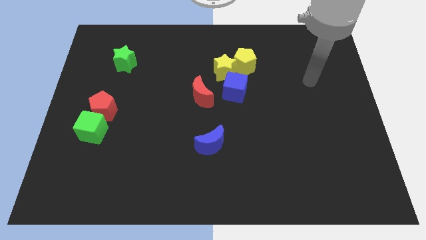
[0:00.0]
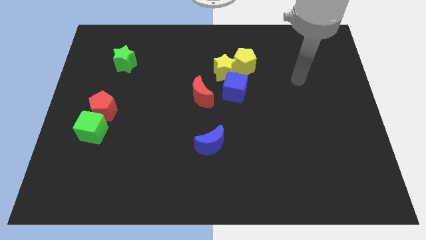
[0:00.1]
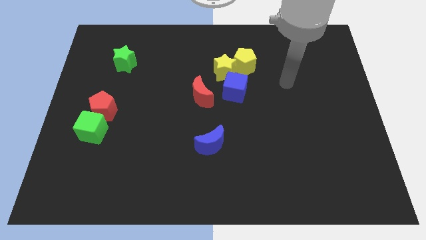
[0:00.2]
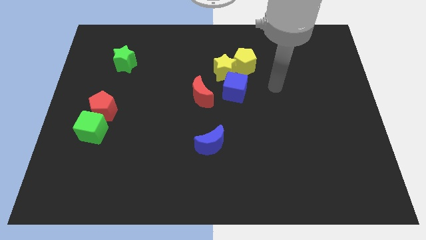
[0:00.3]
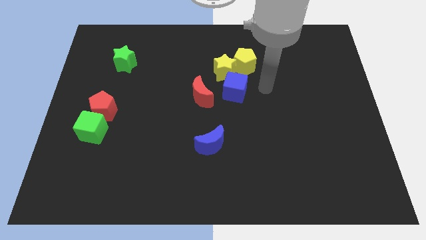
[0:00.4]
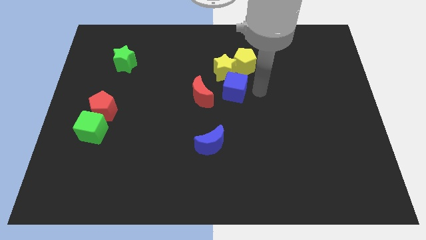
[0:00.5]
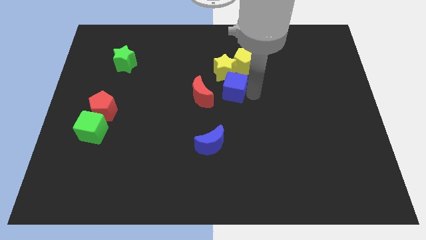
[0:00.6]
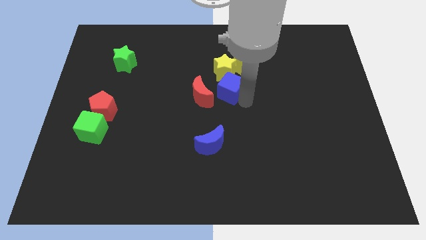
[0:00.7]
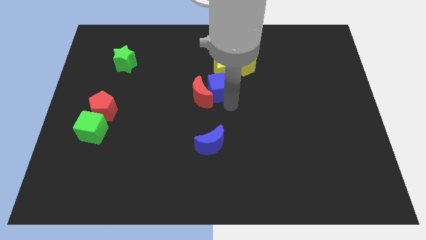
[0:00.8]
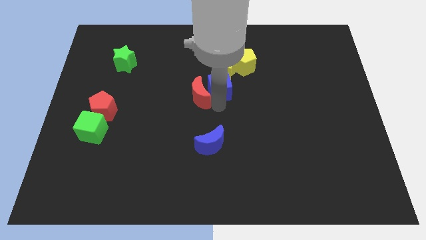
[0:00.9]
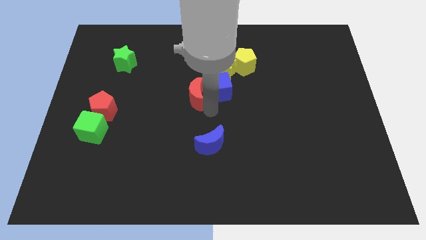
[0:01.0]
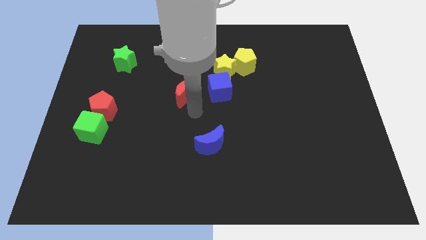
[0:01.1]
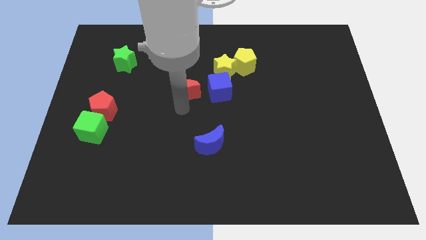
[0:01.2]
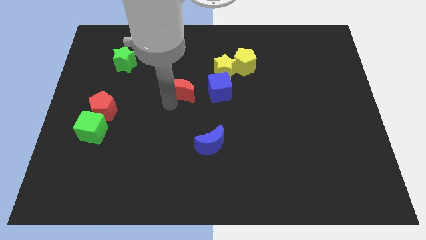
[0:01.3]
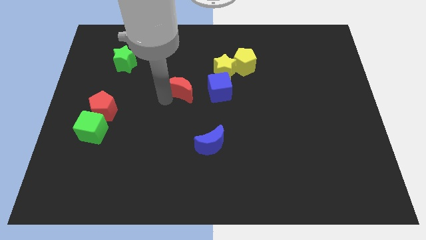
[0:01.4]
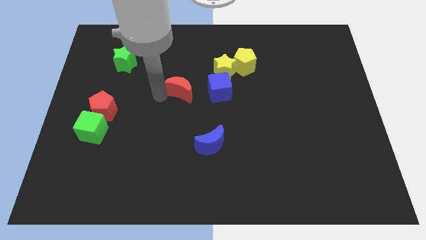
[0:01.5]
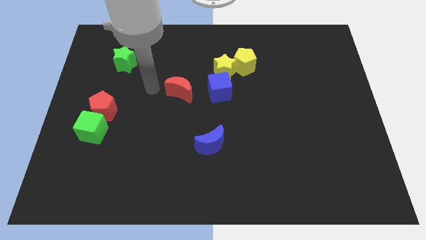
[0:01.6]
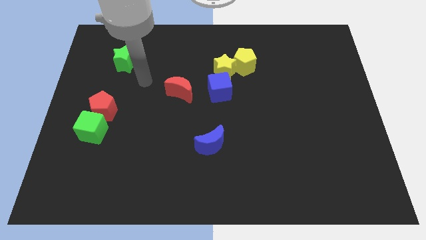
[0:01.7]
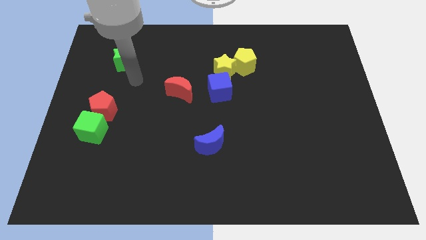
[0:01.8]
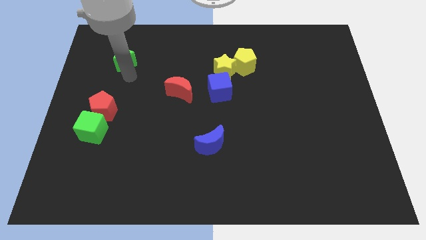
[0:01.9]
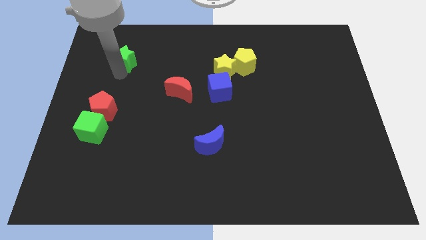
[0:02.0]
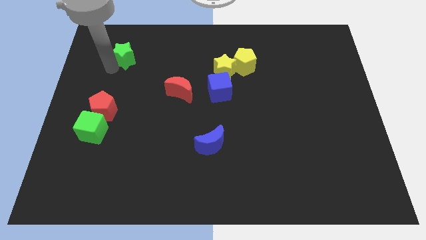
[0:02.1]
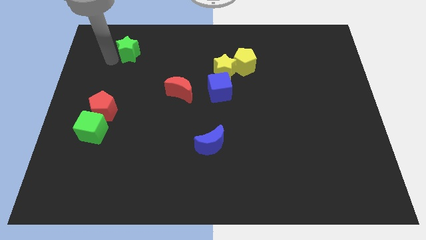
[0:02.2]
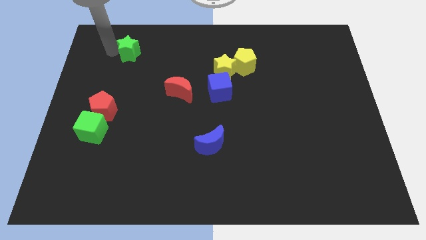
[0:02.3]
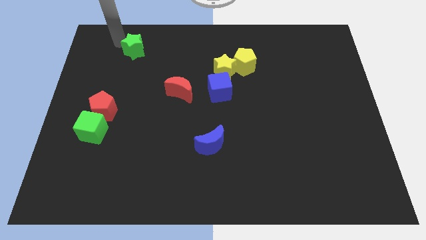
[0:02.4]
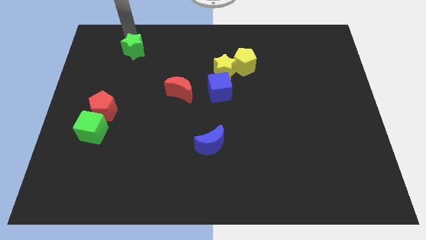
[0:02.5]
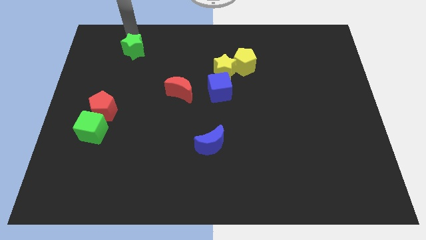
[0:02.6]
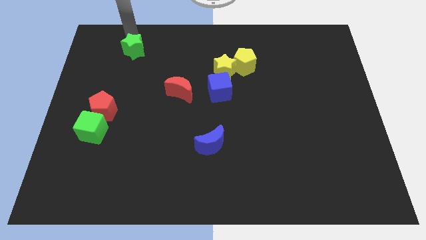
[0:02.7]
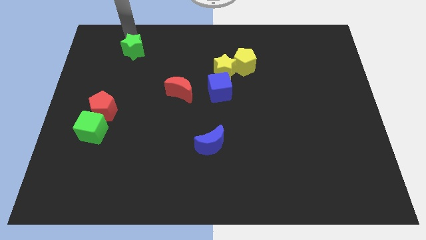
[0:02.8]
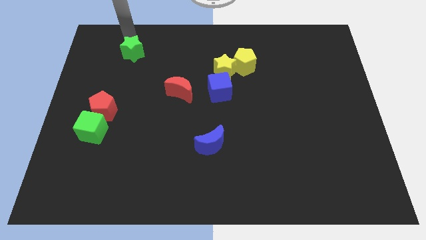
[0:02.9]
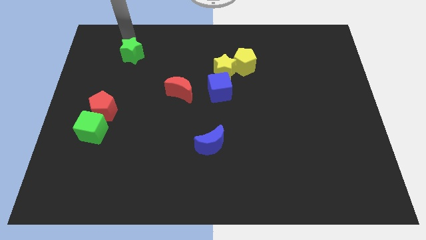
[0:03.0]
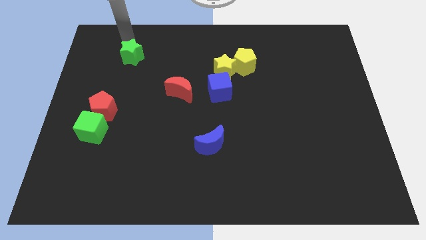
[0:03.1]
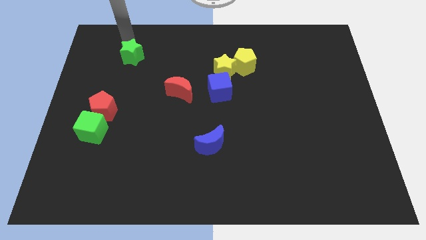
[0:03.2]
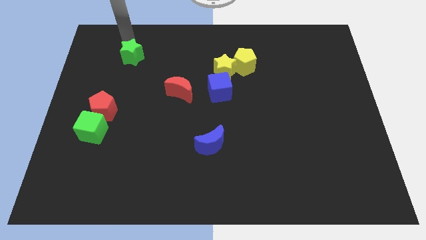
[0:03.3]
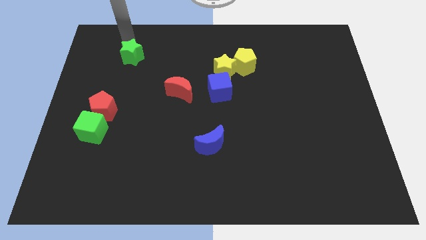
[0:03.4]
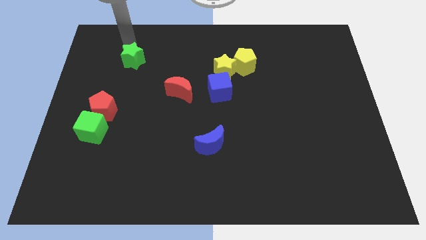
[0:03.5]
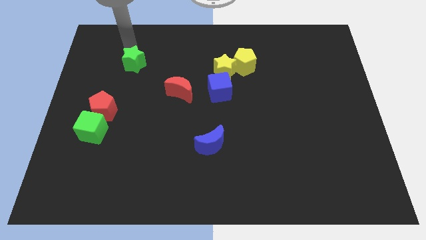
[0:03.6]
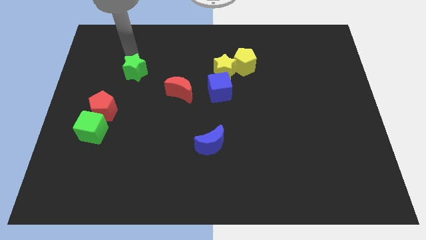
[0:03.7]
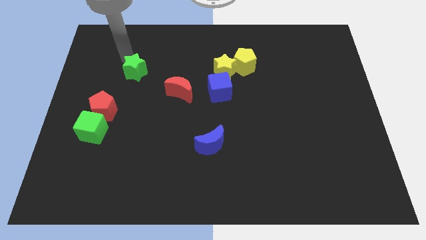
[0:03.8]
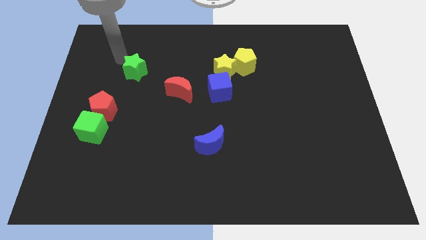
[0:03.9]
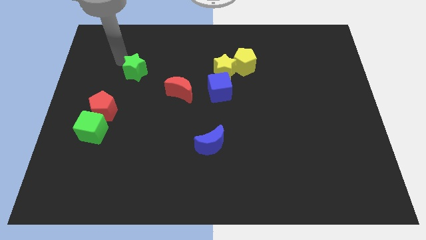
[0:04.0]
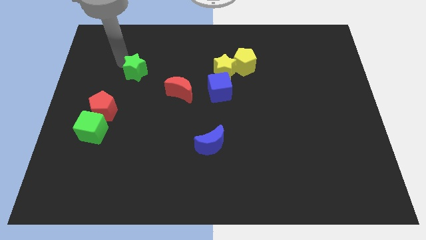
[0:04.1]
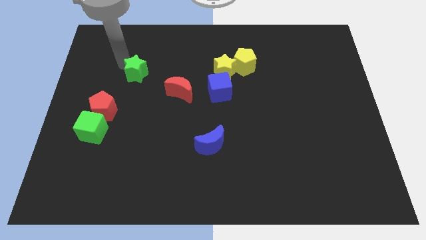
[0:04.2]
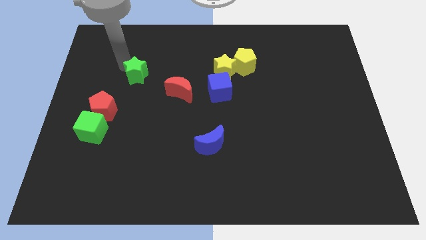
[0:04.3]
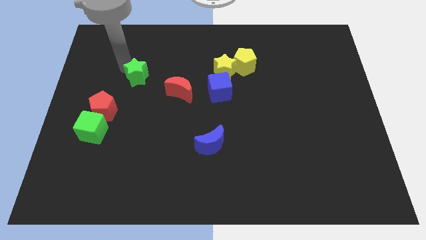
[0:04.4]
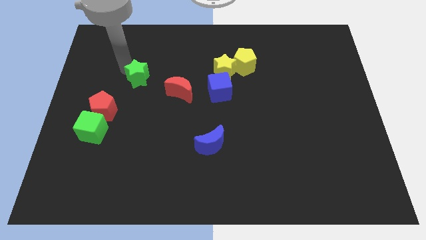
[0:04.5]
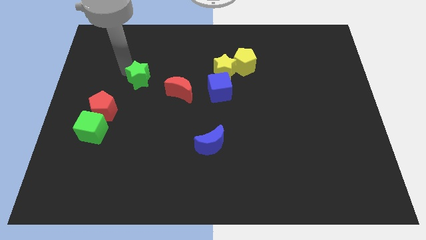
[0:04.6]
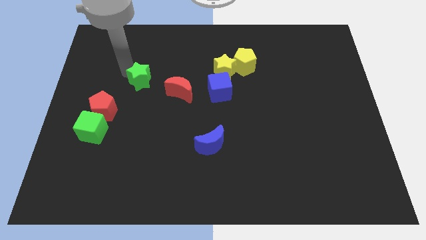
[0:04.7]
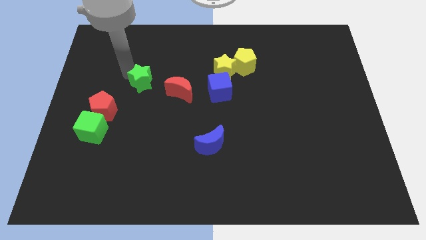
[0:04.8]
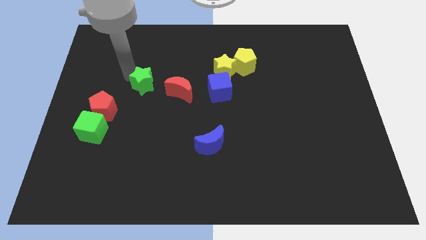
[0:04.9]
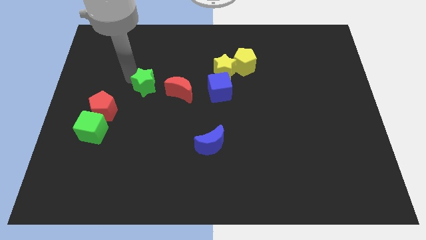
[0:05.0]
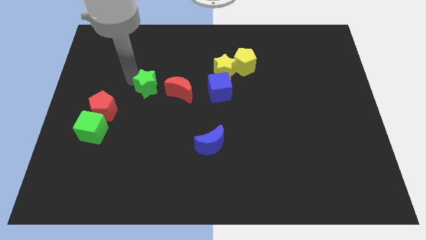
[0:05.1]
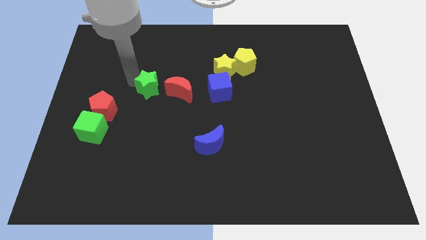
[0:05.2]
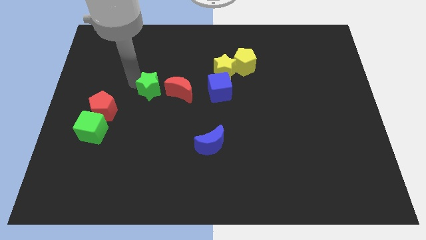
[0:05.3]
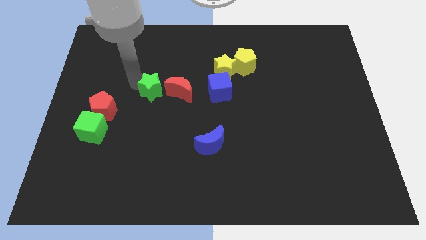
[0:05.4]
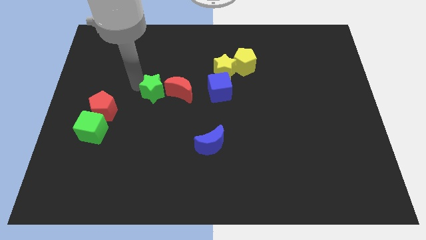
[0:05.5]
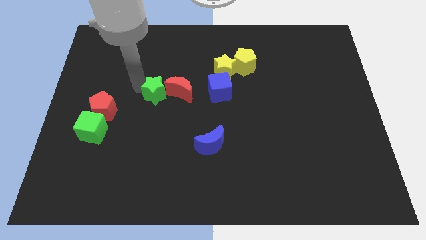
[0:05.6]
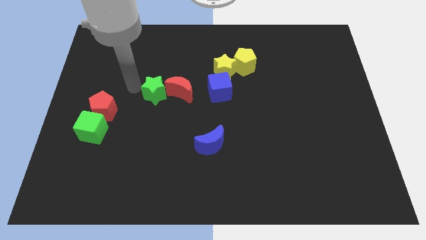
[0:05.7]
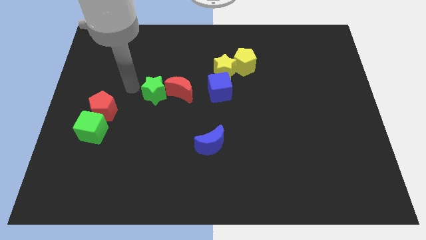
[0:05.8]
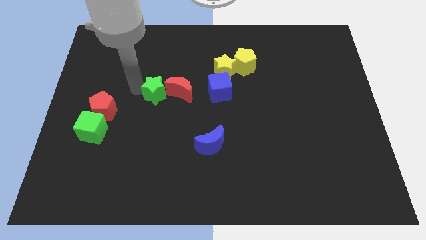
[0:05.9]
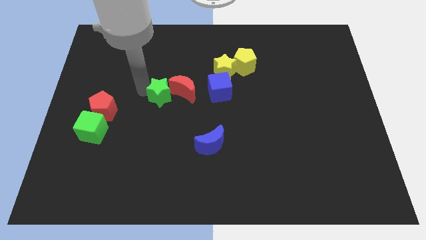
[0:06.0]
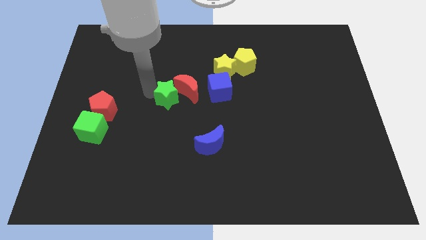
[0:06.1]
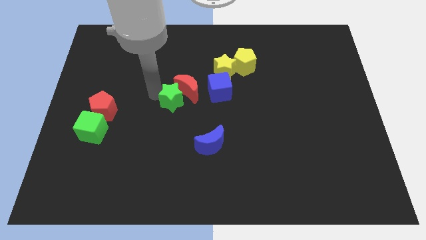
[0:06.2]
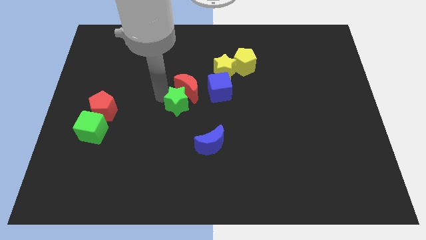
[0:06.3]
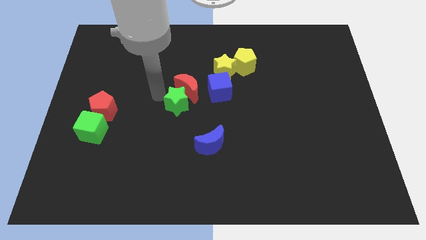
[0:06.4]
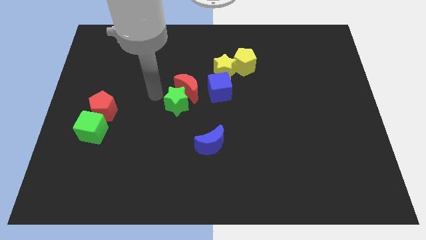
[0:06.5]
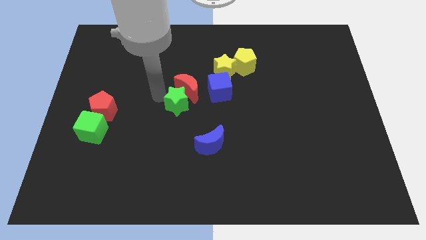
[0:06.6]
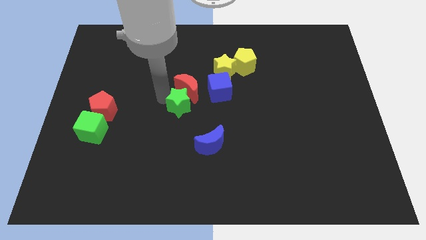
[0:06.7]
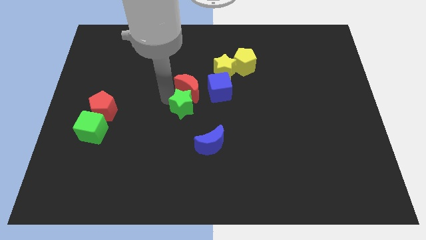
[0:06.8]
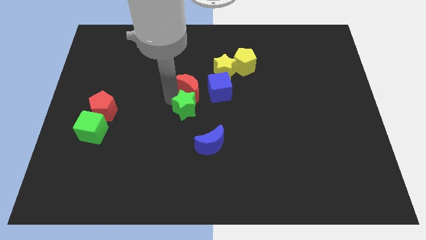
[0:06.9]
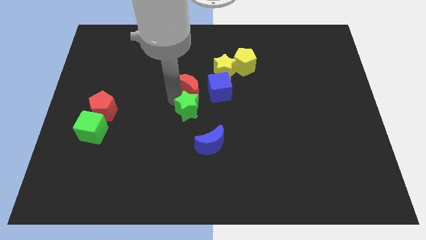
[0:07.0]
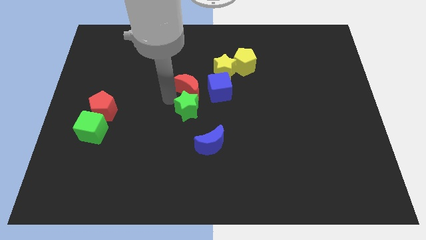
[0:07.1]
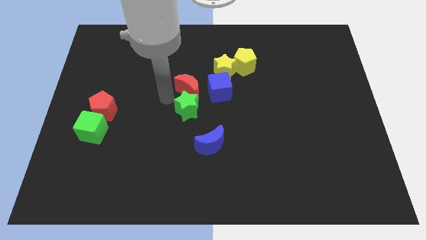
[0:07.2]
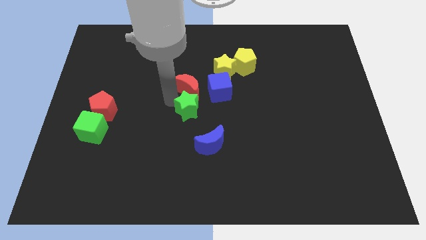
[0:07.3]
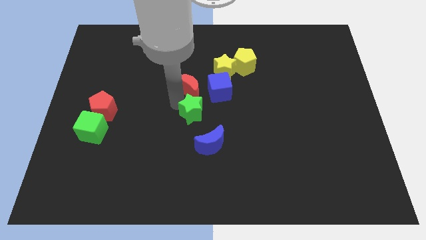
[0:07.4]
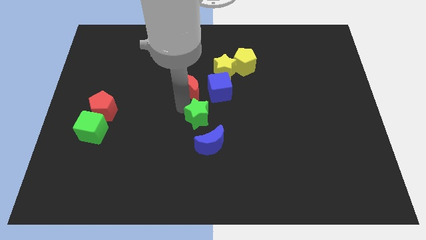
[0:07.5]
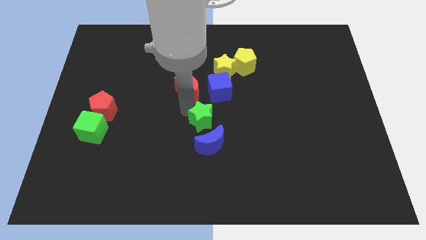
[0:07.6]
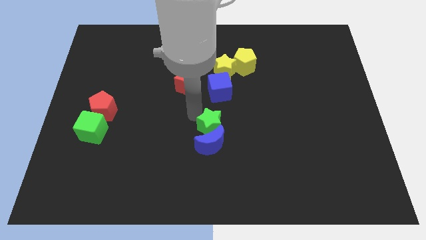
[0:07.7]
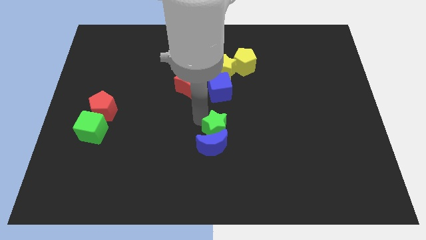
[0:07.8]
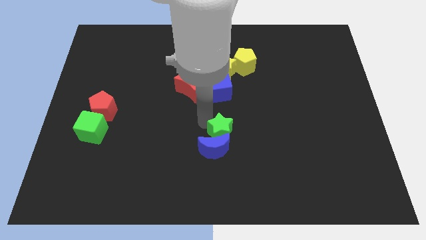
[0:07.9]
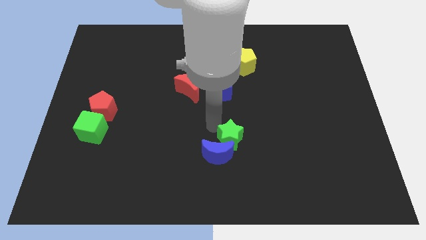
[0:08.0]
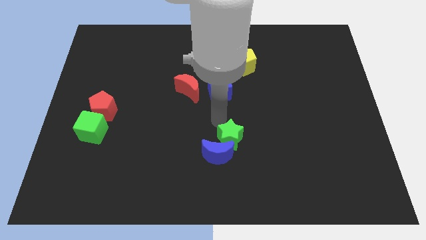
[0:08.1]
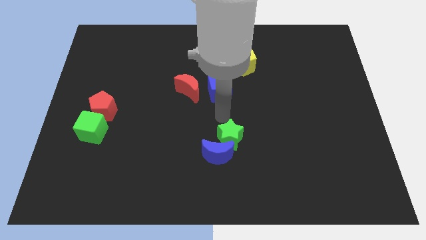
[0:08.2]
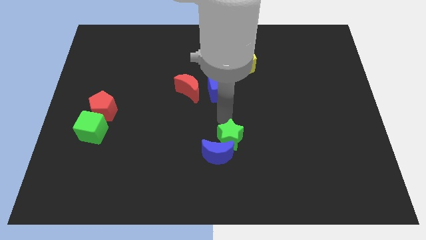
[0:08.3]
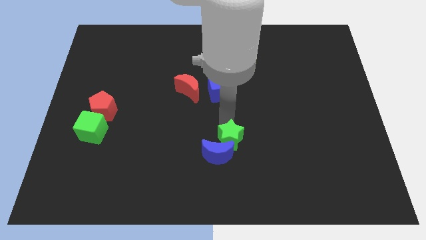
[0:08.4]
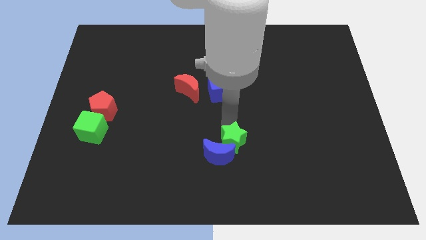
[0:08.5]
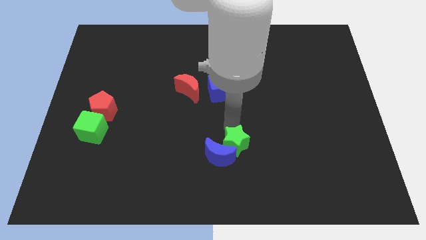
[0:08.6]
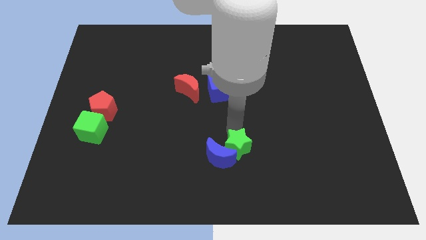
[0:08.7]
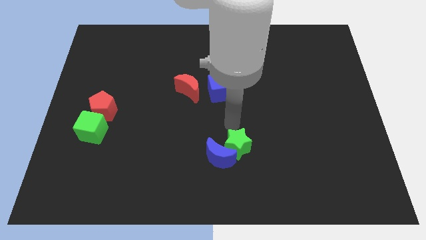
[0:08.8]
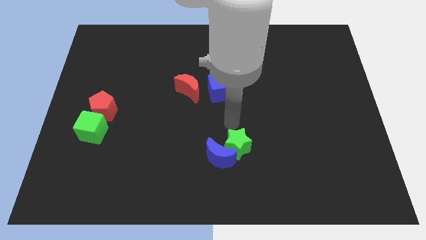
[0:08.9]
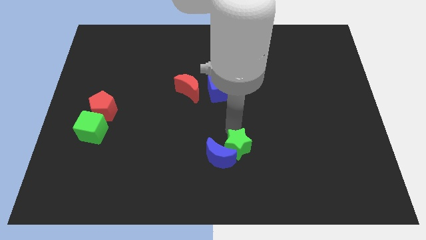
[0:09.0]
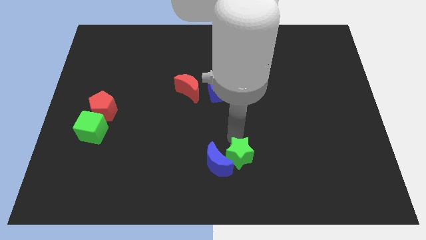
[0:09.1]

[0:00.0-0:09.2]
push the green star to the bottom right side of the blue moon
